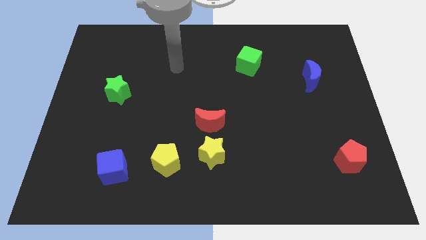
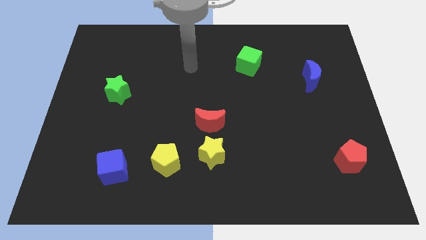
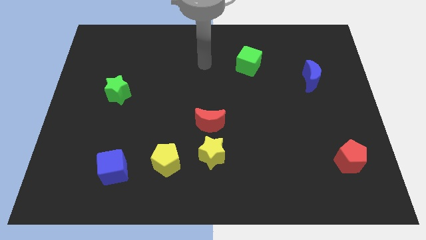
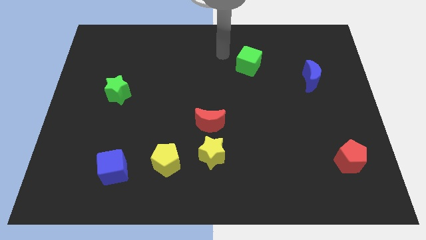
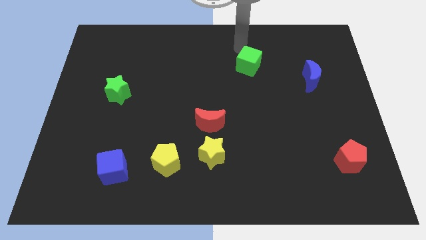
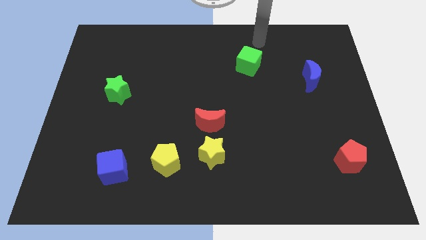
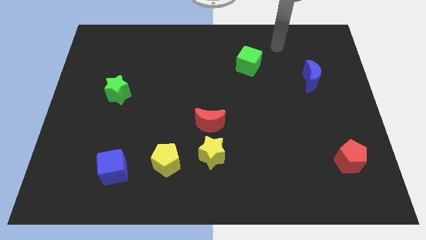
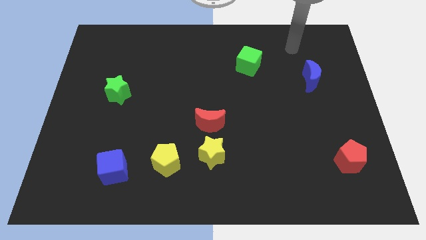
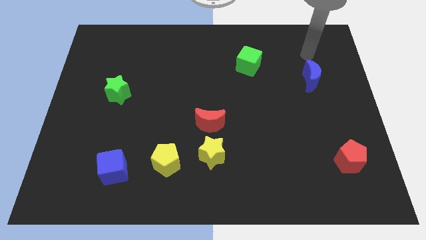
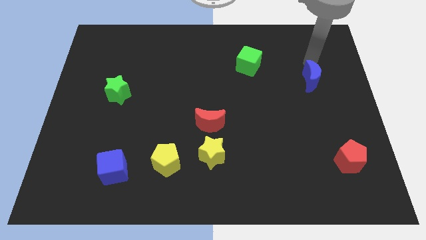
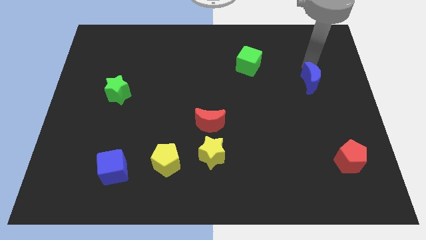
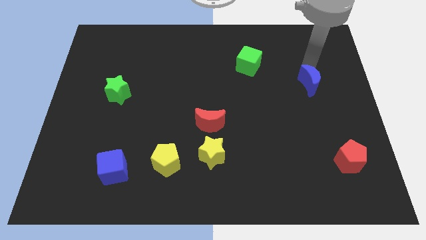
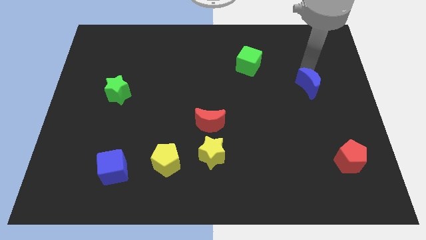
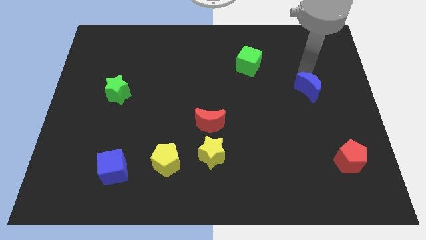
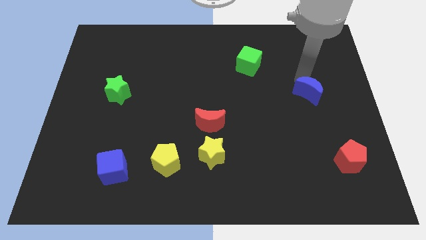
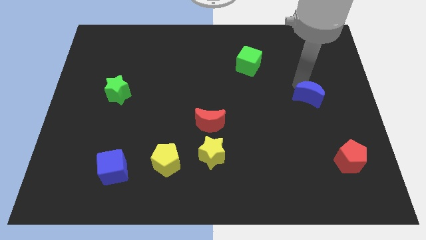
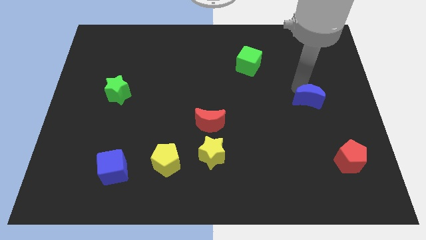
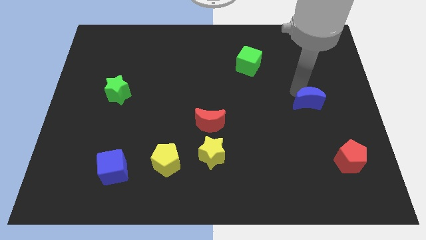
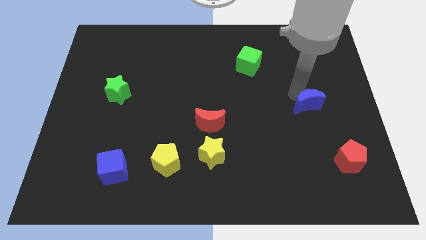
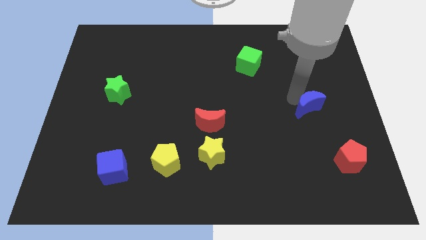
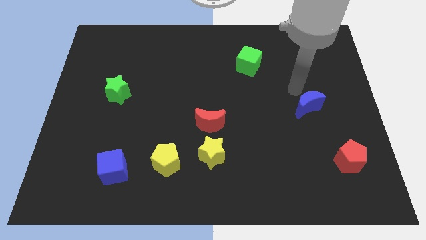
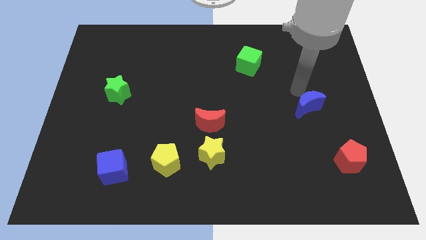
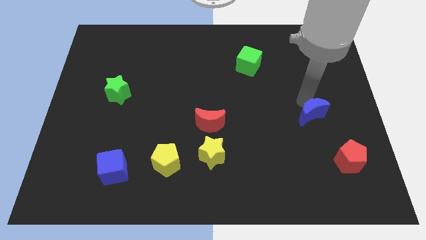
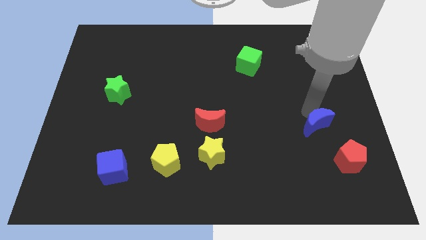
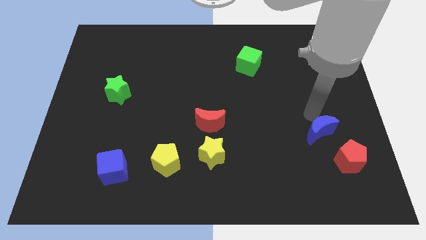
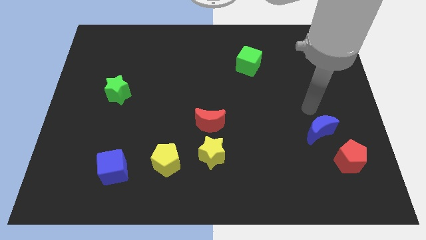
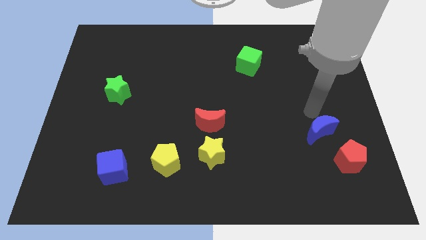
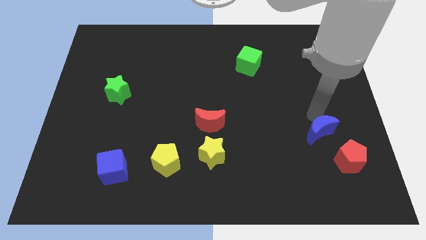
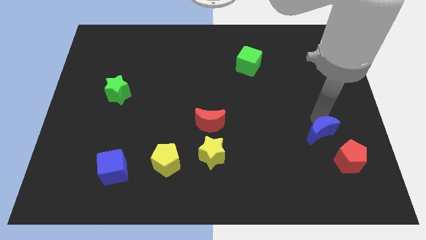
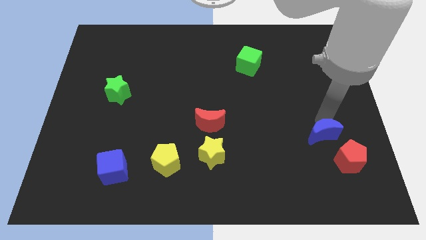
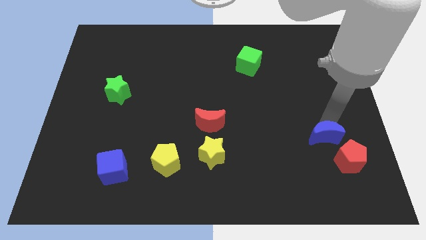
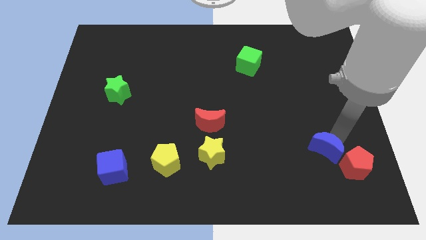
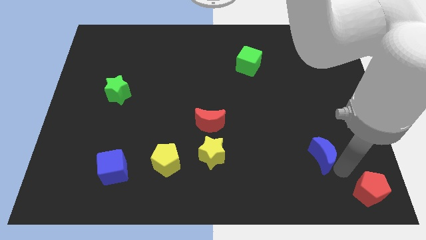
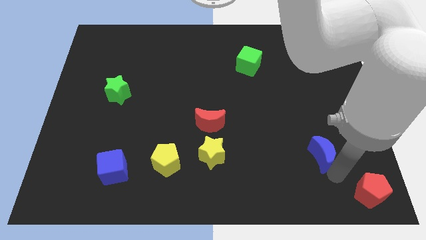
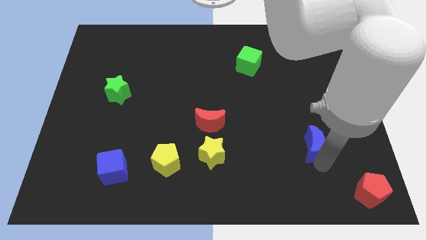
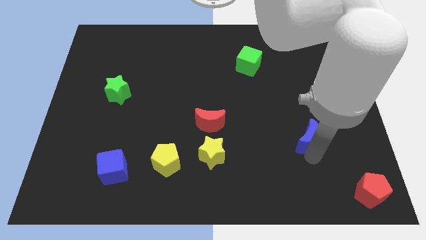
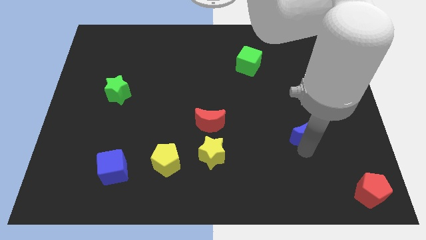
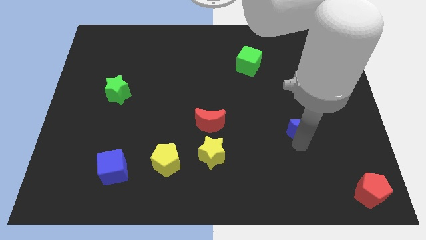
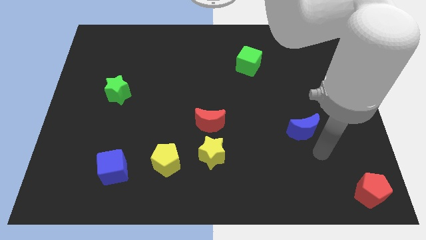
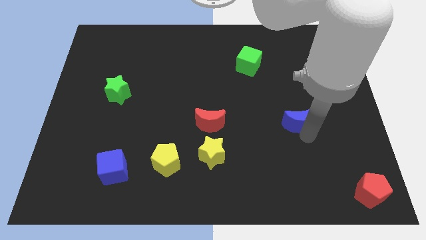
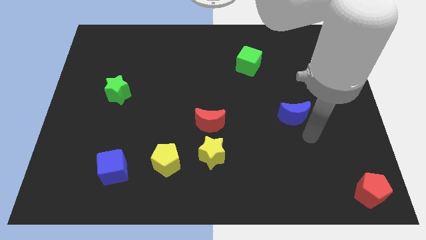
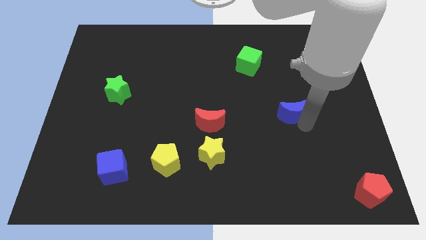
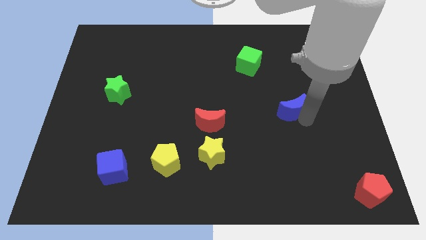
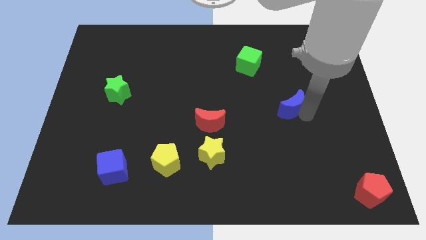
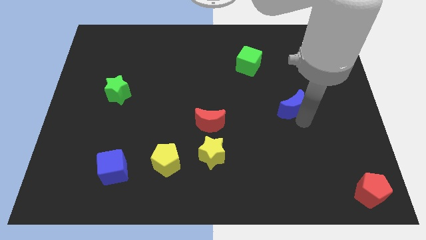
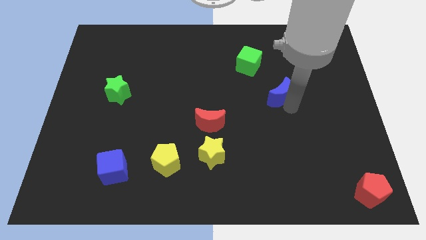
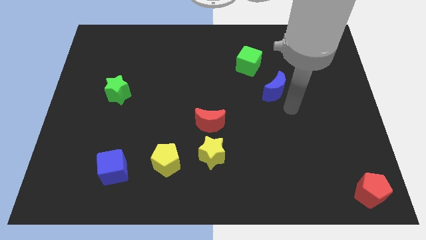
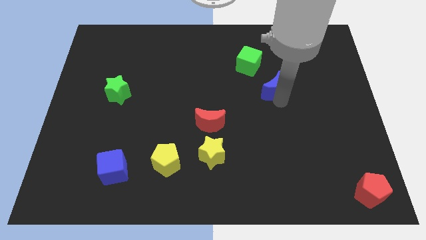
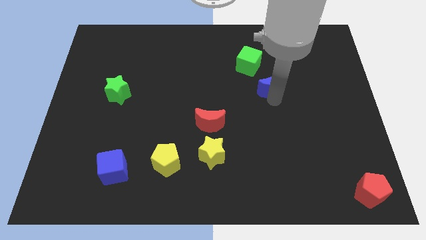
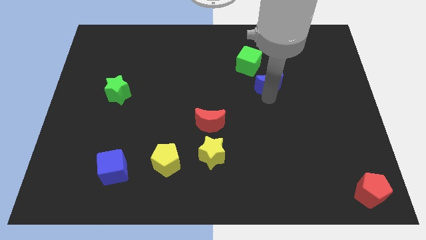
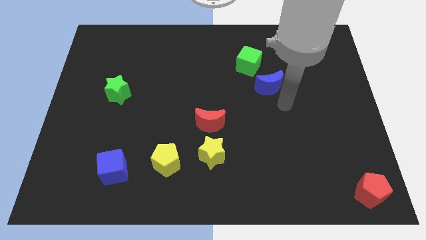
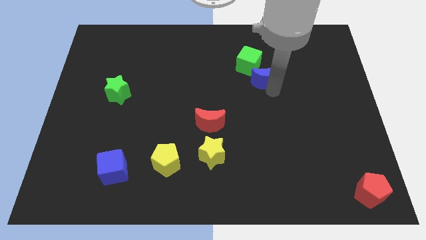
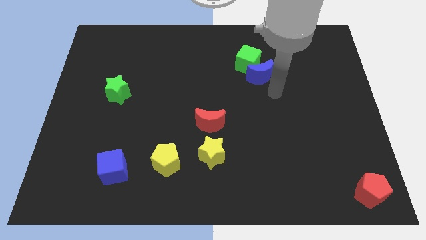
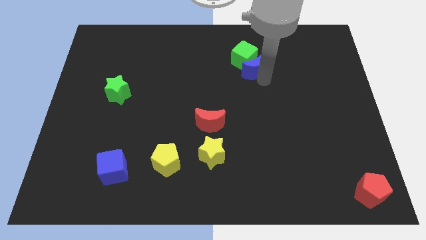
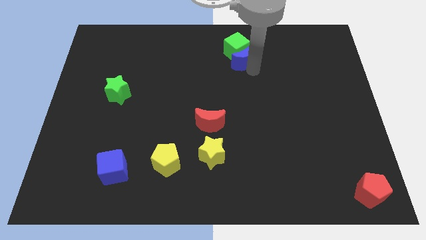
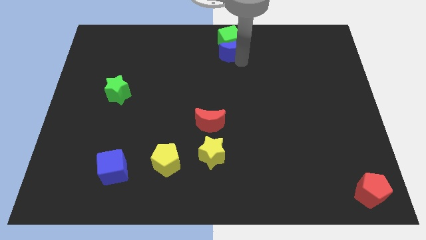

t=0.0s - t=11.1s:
move the blue moon to the towards your base
